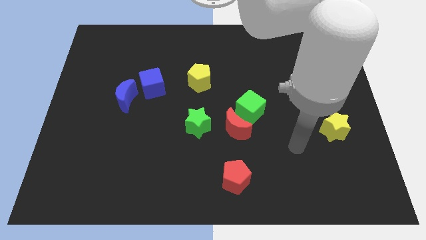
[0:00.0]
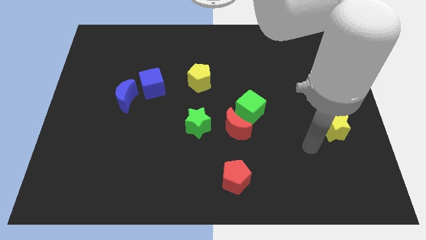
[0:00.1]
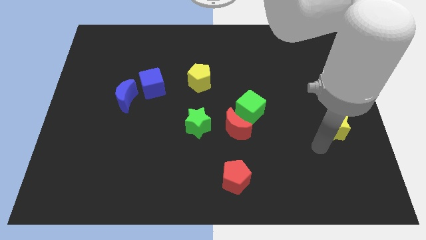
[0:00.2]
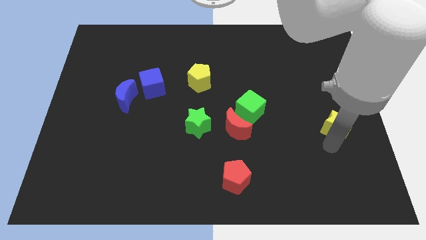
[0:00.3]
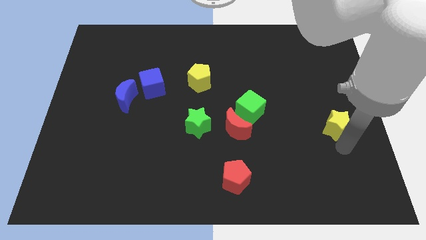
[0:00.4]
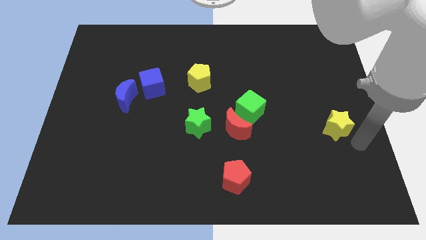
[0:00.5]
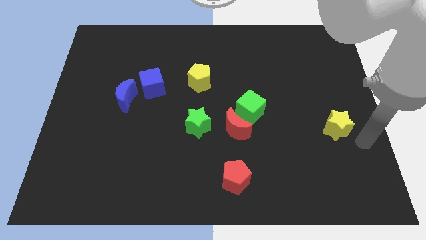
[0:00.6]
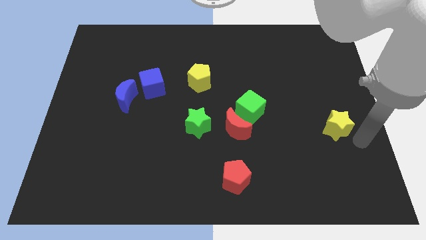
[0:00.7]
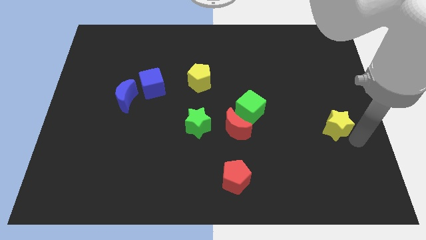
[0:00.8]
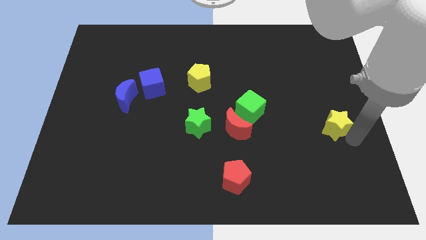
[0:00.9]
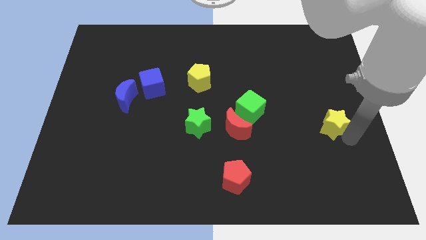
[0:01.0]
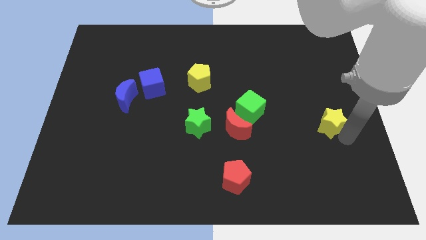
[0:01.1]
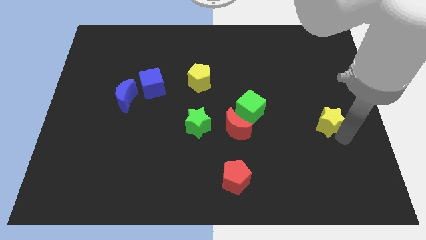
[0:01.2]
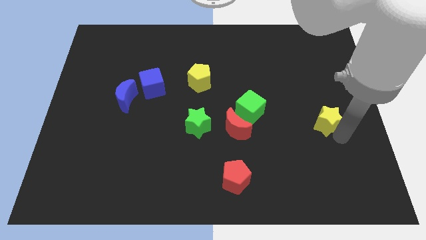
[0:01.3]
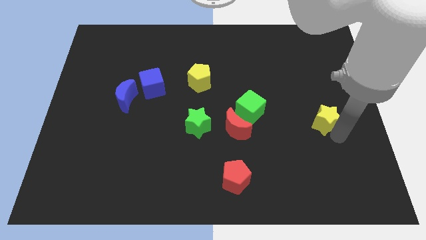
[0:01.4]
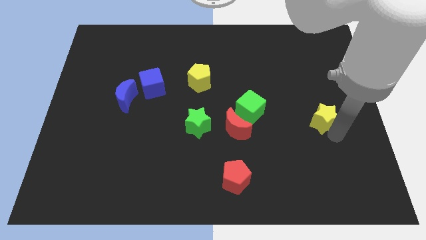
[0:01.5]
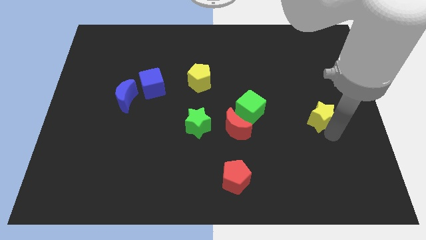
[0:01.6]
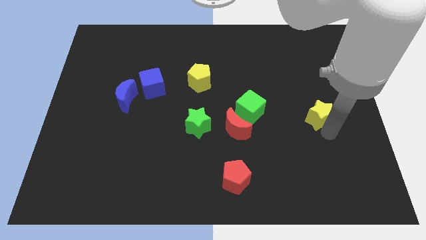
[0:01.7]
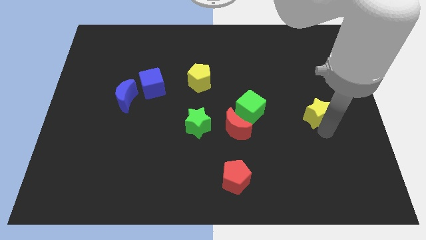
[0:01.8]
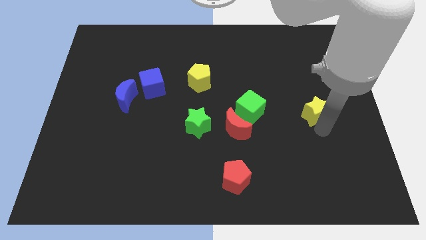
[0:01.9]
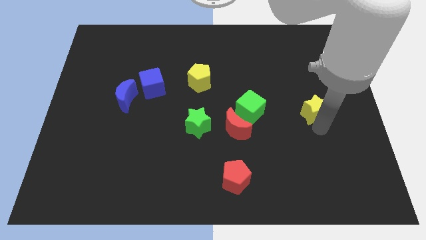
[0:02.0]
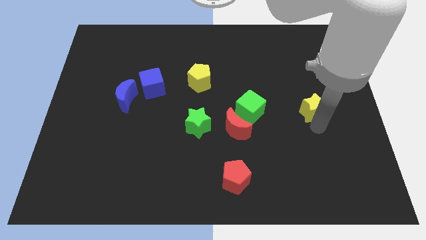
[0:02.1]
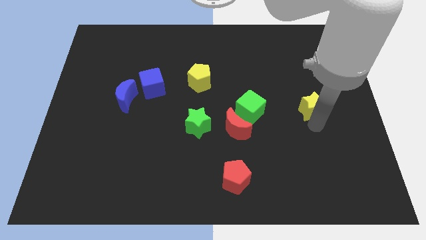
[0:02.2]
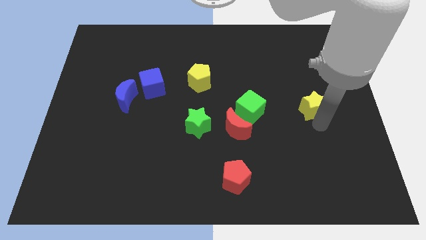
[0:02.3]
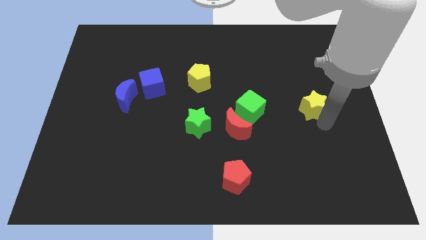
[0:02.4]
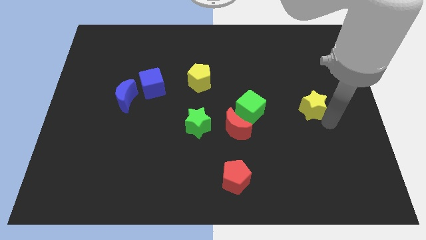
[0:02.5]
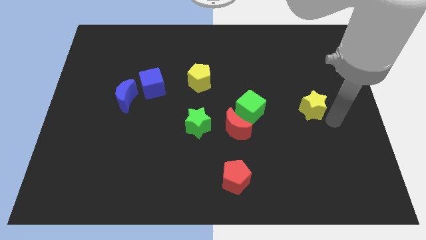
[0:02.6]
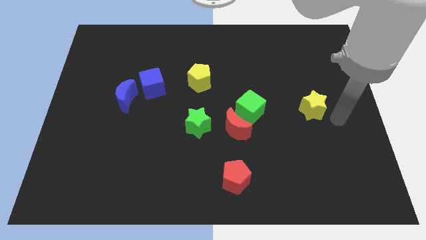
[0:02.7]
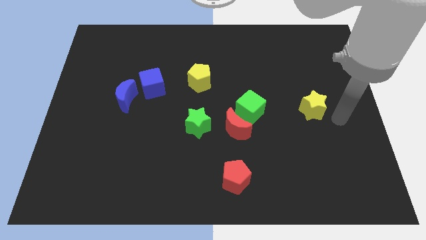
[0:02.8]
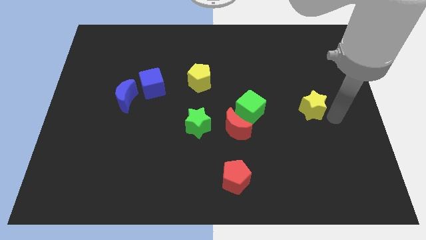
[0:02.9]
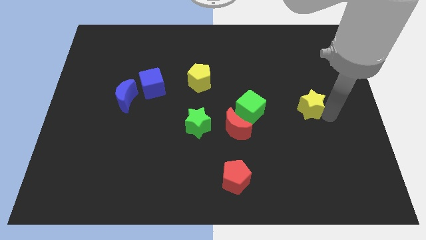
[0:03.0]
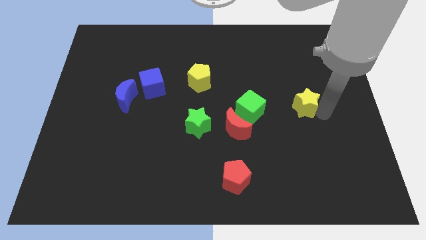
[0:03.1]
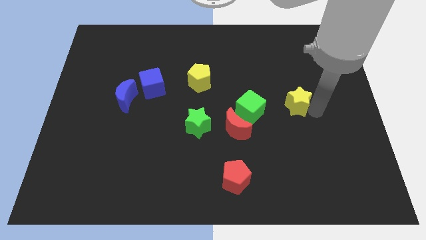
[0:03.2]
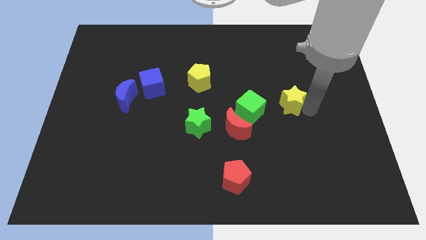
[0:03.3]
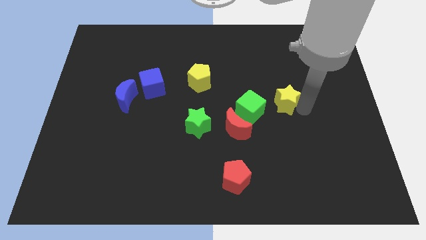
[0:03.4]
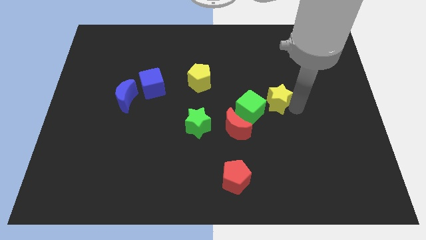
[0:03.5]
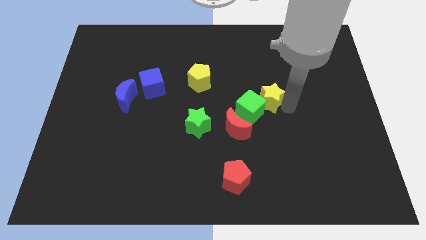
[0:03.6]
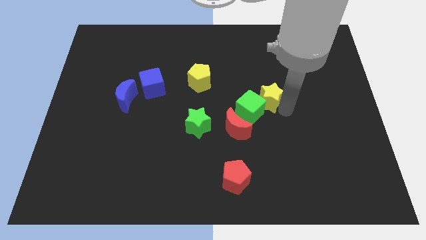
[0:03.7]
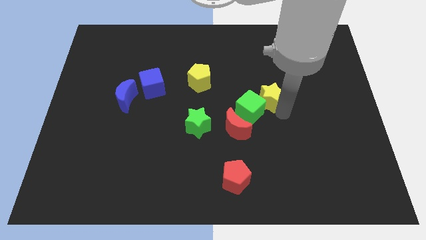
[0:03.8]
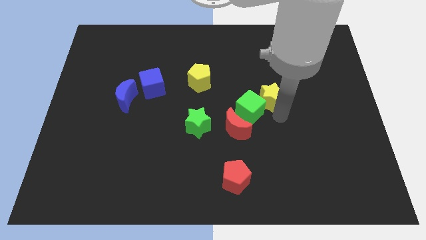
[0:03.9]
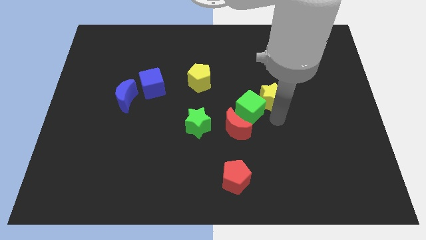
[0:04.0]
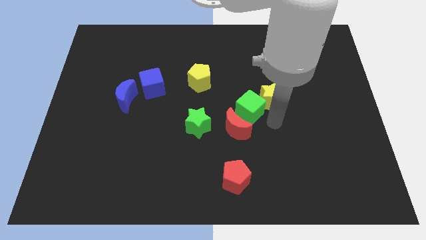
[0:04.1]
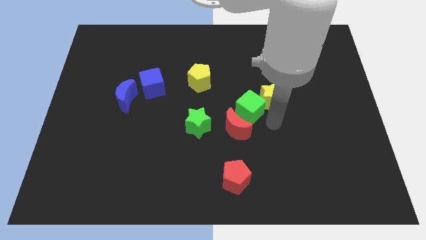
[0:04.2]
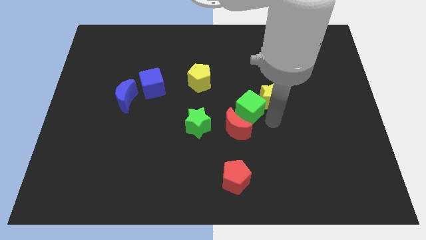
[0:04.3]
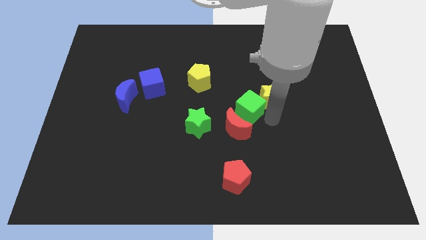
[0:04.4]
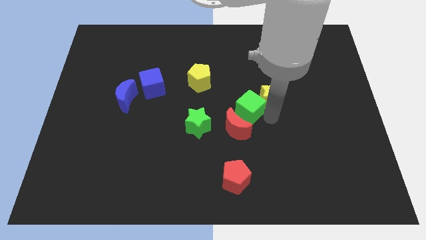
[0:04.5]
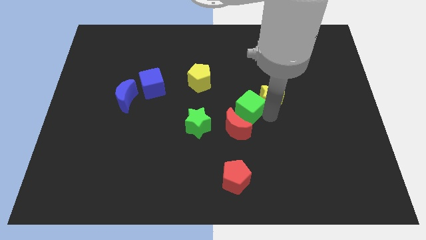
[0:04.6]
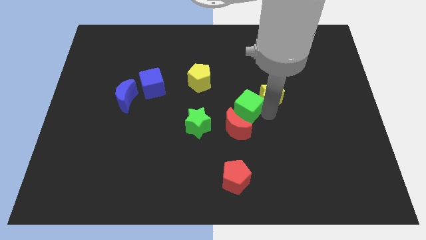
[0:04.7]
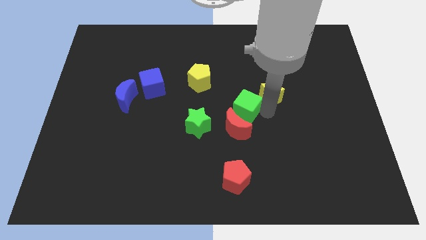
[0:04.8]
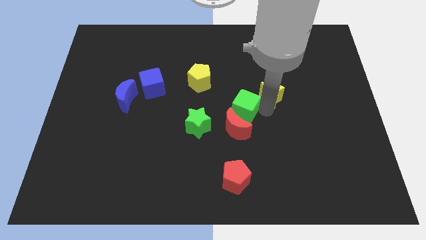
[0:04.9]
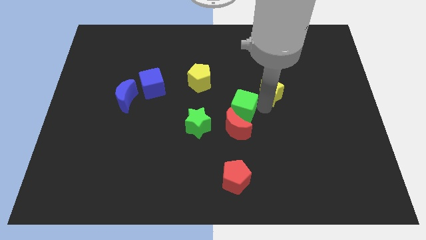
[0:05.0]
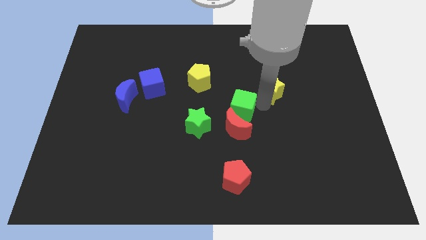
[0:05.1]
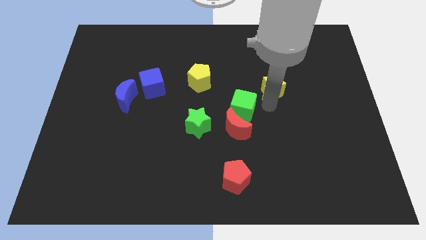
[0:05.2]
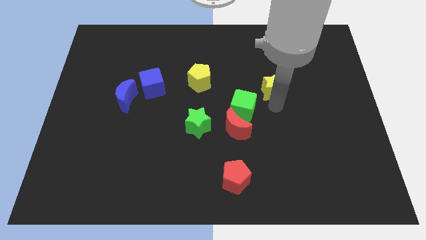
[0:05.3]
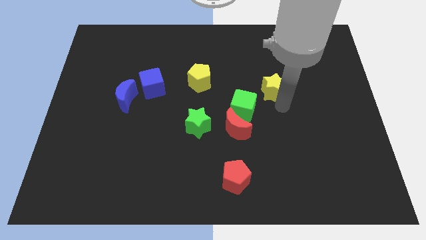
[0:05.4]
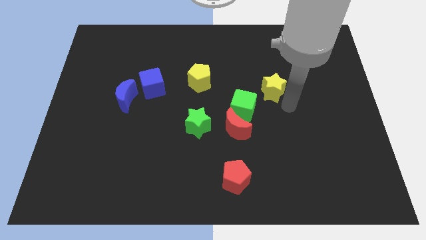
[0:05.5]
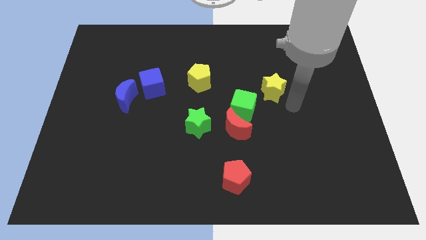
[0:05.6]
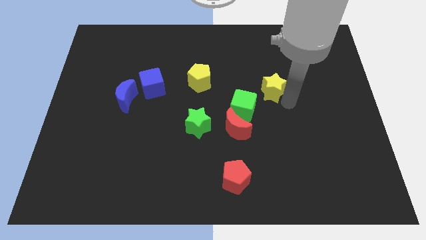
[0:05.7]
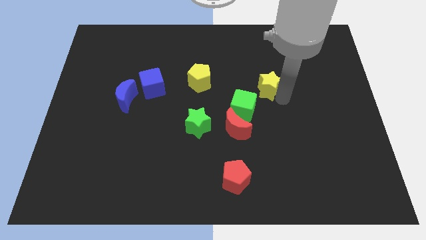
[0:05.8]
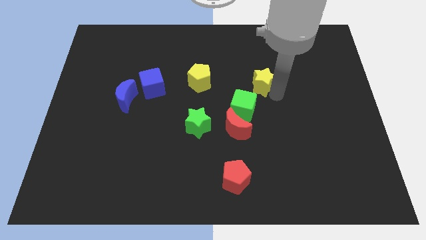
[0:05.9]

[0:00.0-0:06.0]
push the yellow star up and left

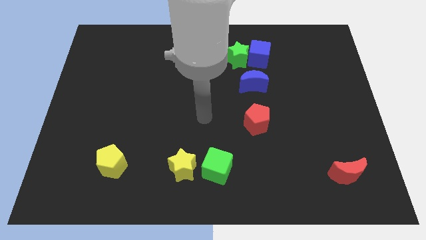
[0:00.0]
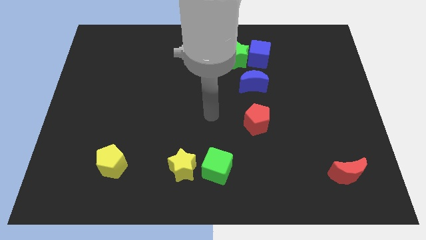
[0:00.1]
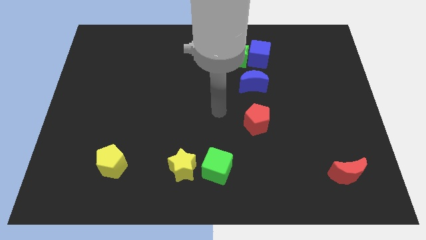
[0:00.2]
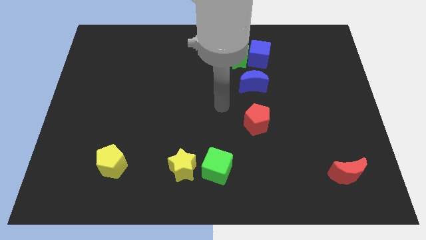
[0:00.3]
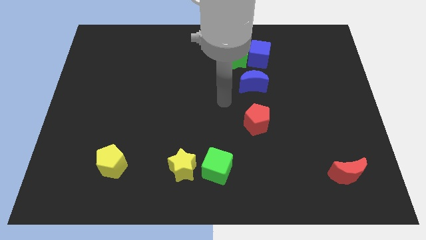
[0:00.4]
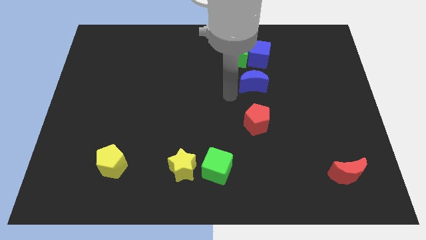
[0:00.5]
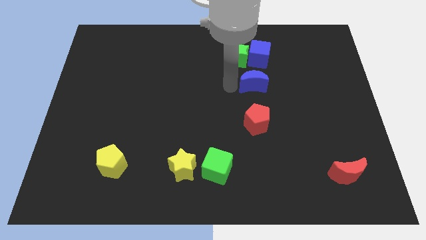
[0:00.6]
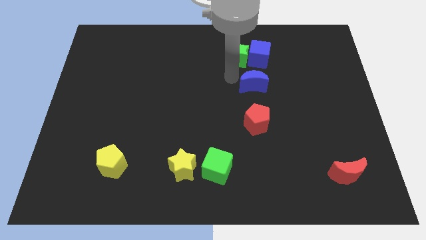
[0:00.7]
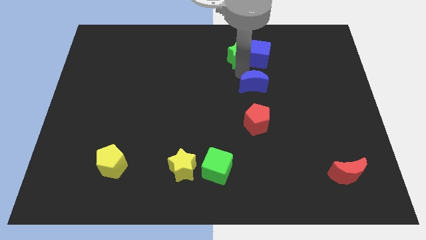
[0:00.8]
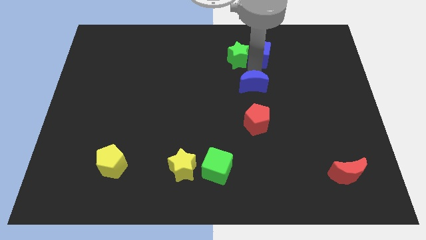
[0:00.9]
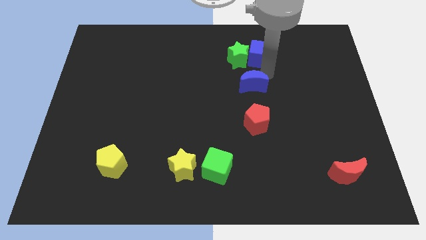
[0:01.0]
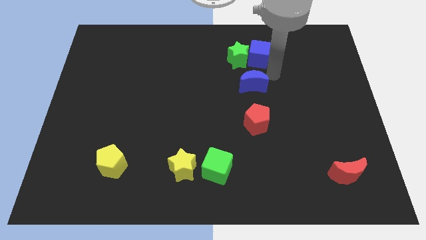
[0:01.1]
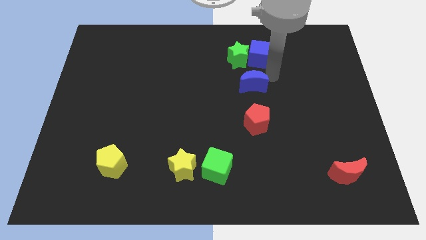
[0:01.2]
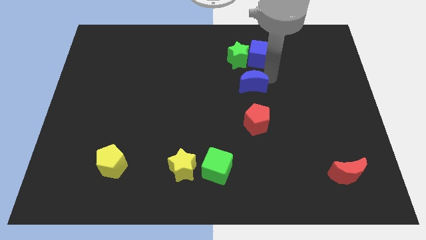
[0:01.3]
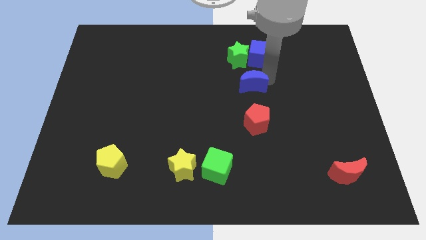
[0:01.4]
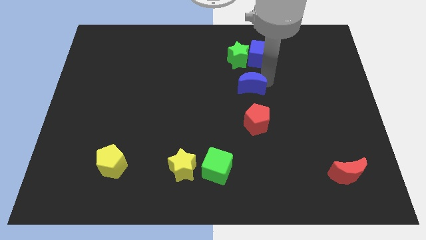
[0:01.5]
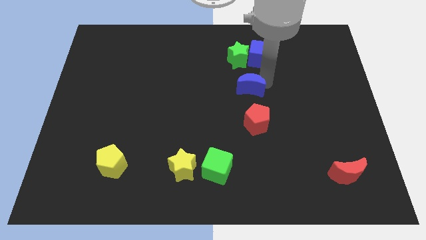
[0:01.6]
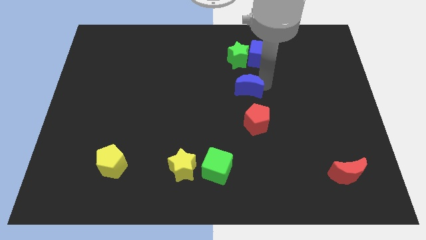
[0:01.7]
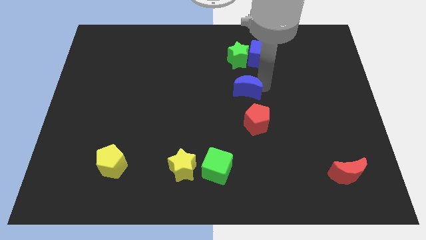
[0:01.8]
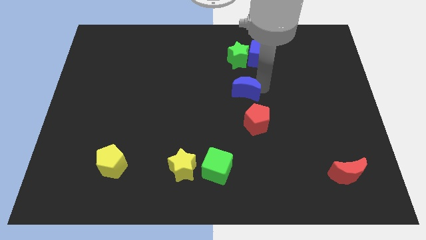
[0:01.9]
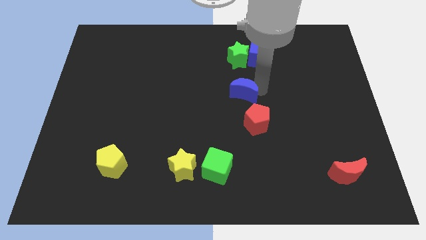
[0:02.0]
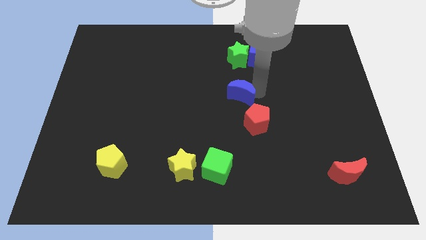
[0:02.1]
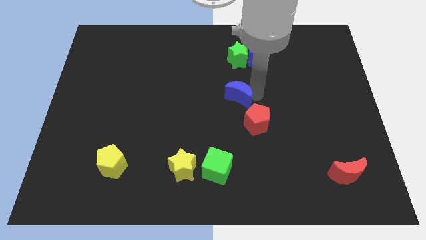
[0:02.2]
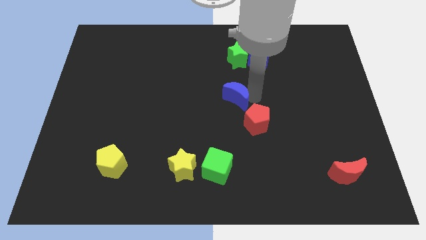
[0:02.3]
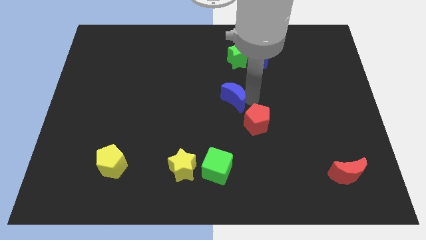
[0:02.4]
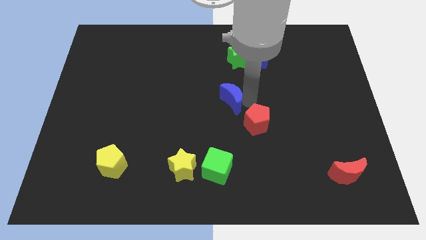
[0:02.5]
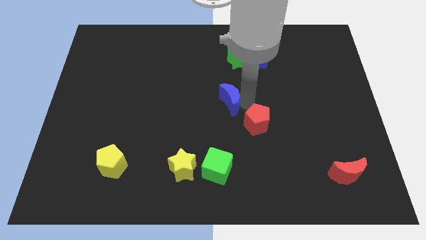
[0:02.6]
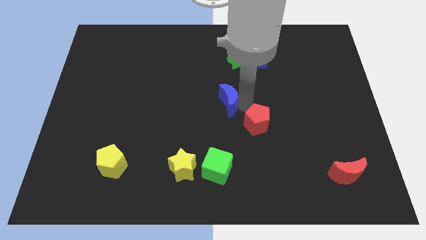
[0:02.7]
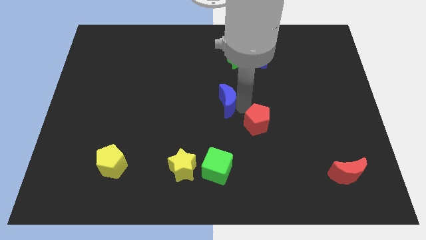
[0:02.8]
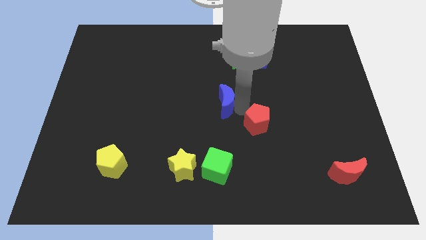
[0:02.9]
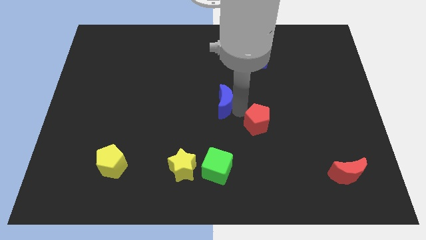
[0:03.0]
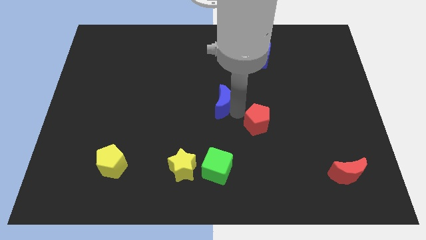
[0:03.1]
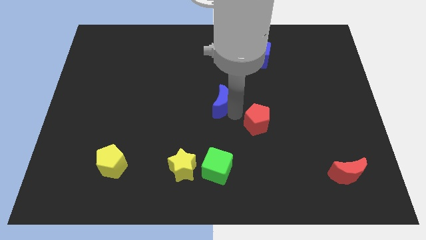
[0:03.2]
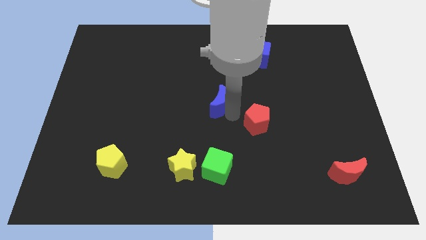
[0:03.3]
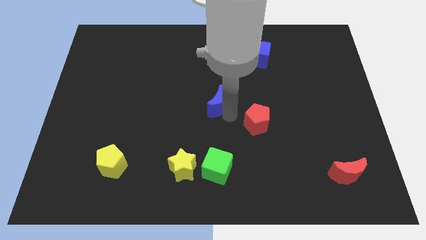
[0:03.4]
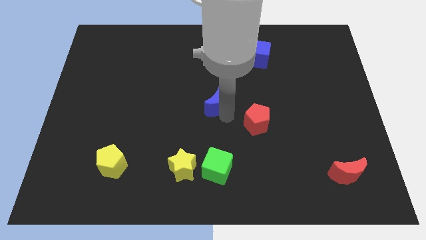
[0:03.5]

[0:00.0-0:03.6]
move the blue moon a bit left
